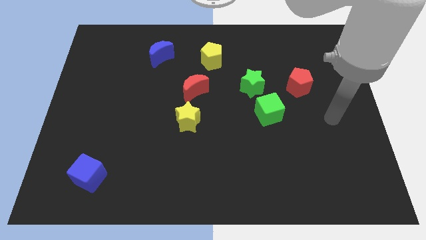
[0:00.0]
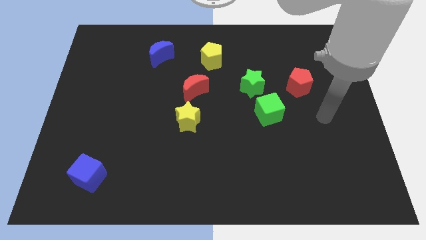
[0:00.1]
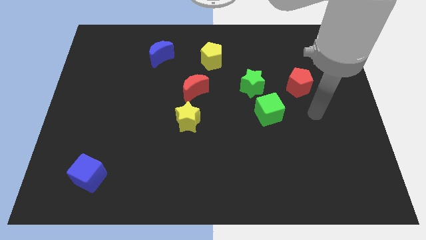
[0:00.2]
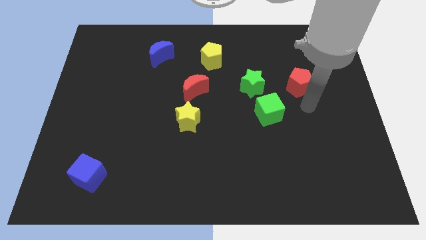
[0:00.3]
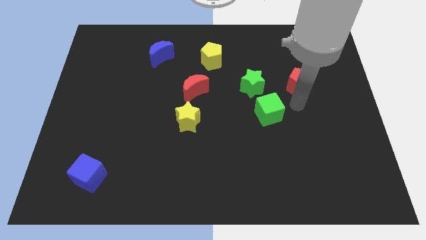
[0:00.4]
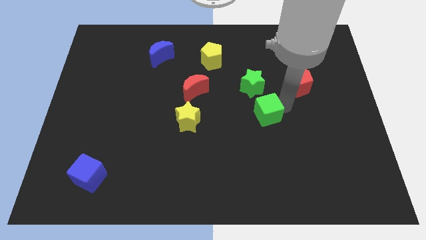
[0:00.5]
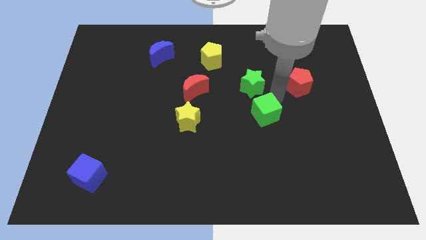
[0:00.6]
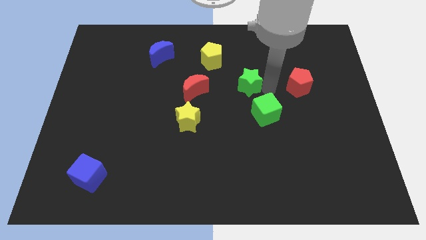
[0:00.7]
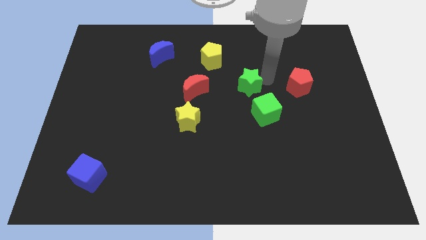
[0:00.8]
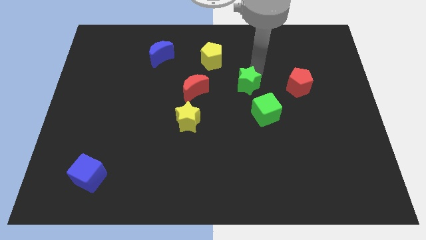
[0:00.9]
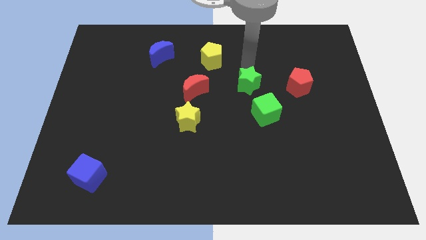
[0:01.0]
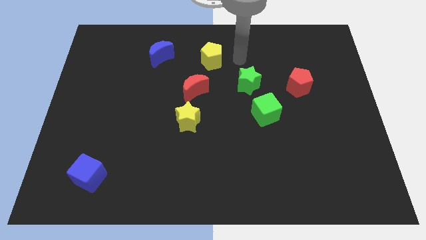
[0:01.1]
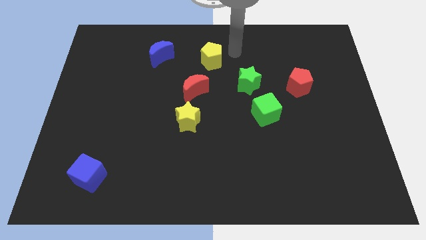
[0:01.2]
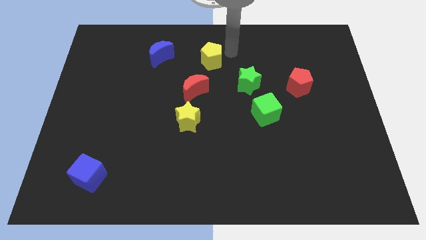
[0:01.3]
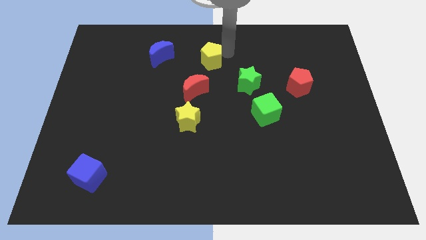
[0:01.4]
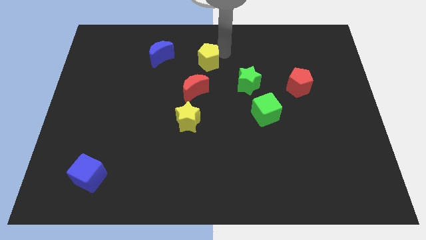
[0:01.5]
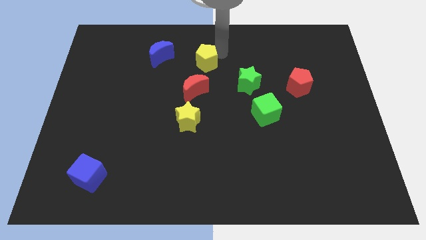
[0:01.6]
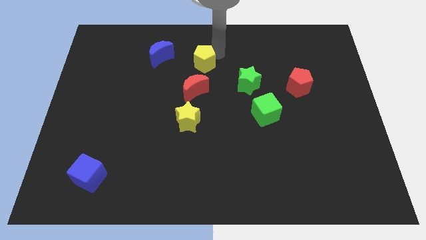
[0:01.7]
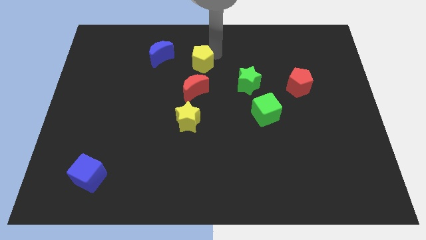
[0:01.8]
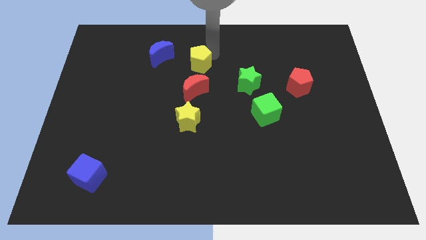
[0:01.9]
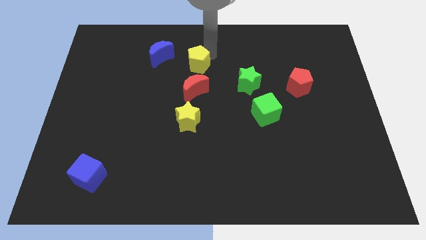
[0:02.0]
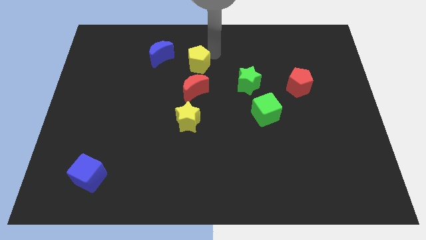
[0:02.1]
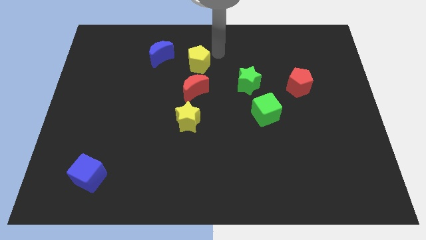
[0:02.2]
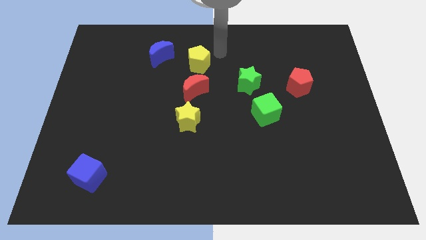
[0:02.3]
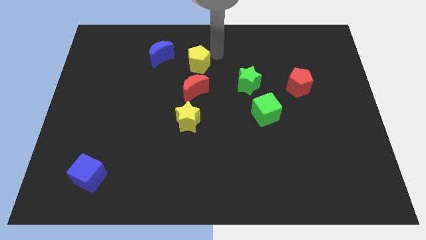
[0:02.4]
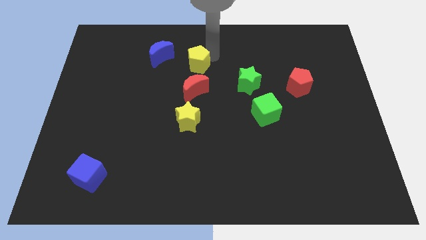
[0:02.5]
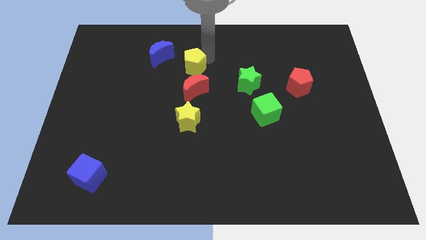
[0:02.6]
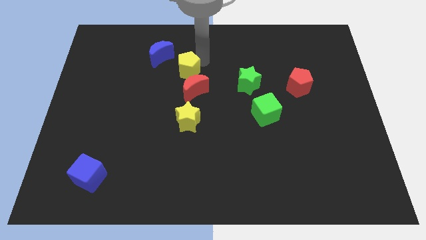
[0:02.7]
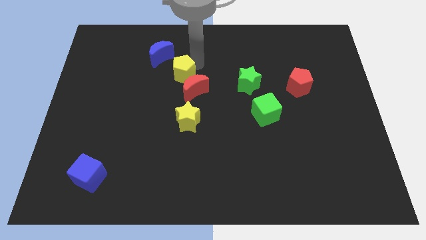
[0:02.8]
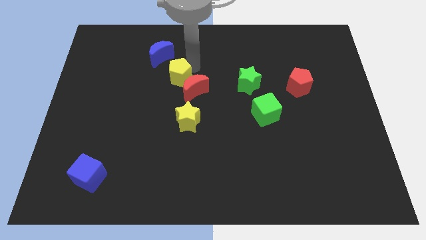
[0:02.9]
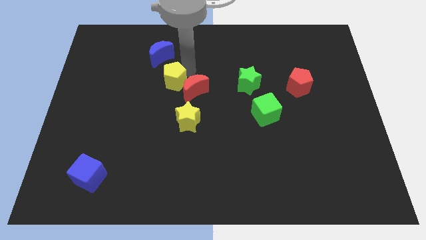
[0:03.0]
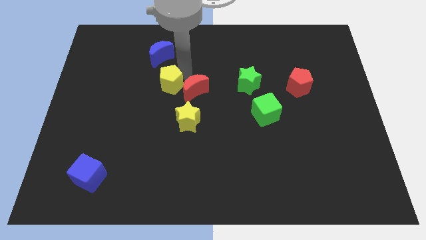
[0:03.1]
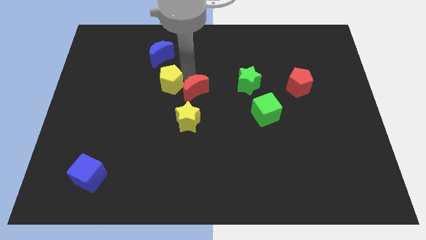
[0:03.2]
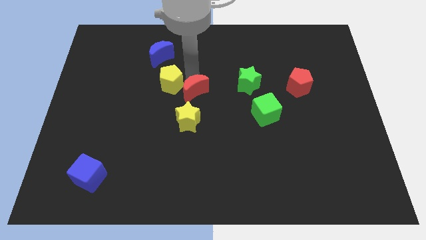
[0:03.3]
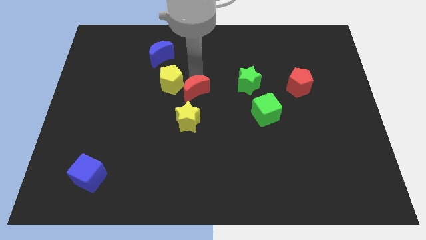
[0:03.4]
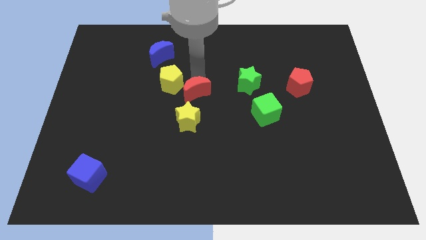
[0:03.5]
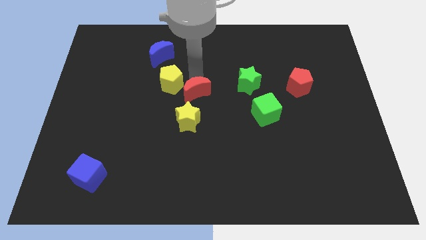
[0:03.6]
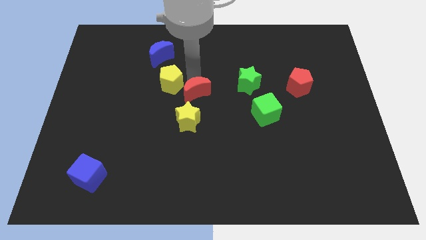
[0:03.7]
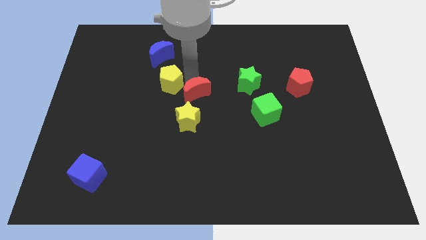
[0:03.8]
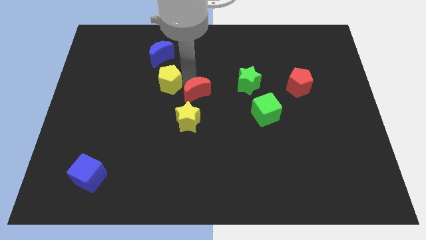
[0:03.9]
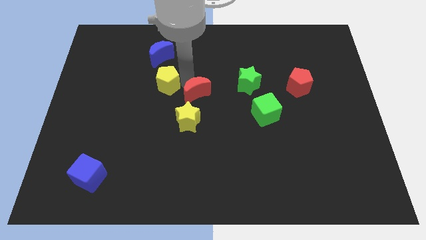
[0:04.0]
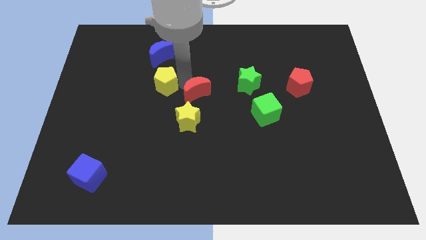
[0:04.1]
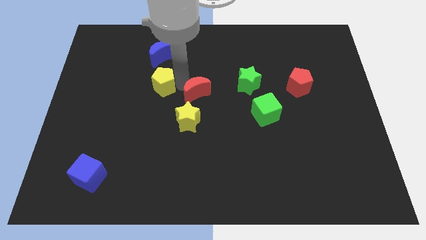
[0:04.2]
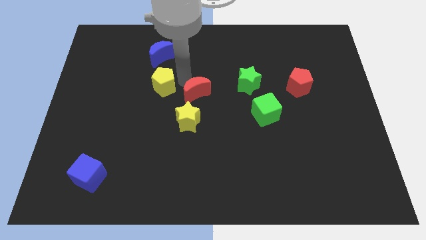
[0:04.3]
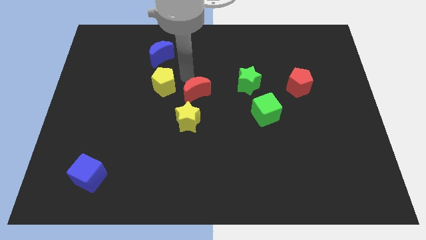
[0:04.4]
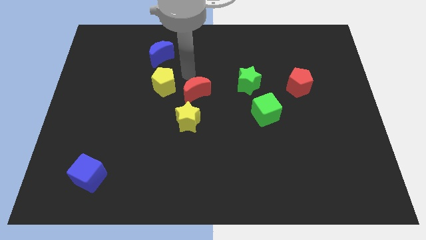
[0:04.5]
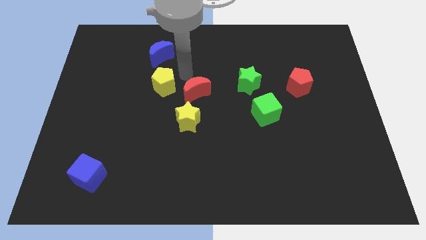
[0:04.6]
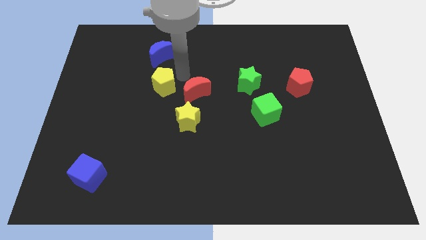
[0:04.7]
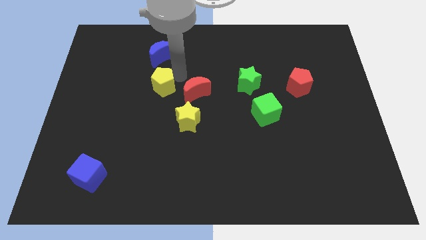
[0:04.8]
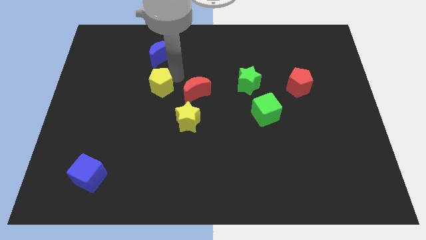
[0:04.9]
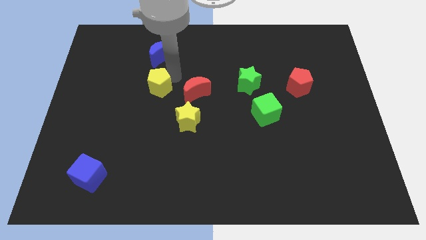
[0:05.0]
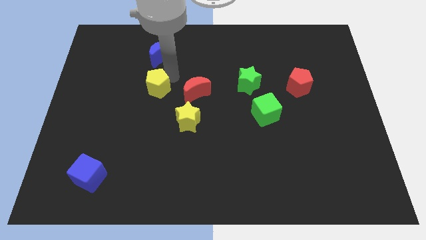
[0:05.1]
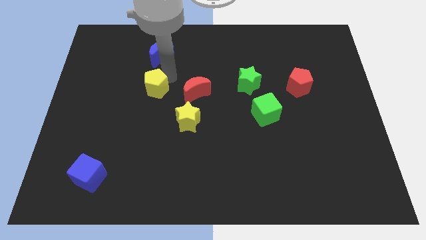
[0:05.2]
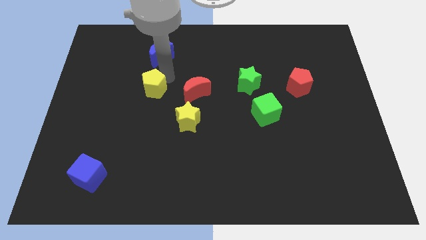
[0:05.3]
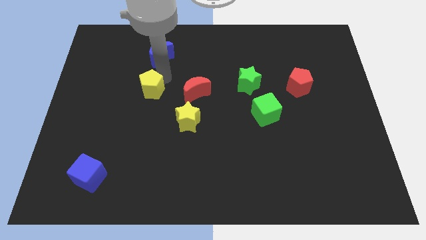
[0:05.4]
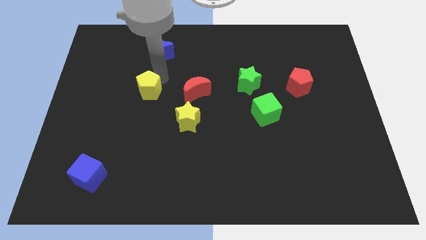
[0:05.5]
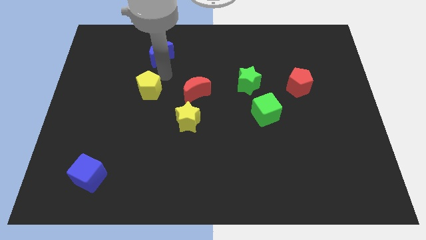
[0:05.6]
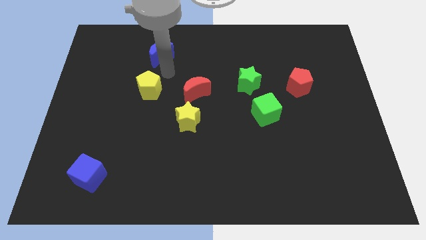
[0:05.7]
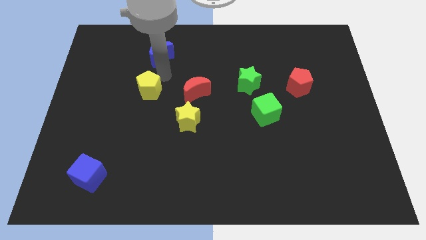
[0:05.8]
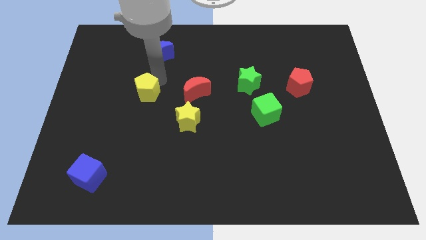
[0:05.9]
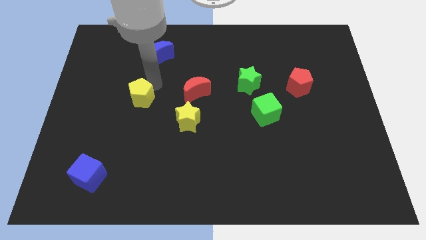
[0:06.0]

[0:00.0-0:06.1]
move the yellow pentagon diagonally downwards and left

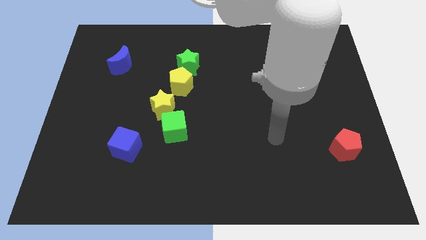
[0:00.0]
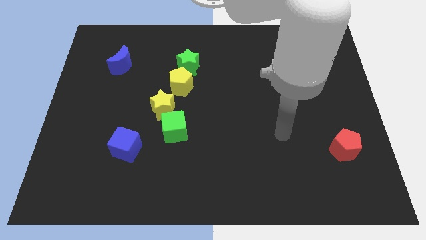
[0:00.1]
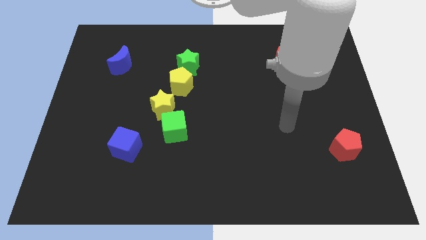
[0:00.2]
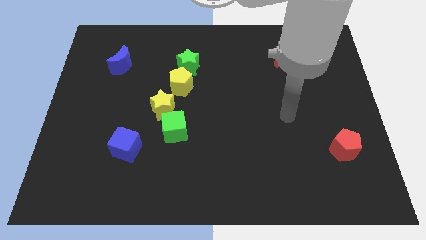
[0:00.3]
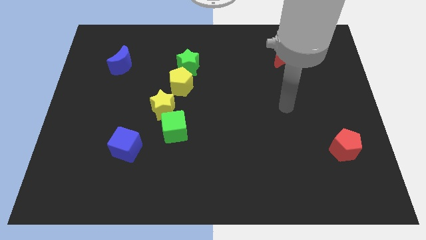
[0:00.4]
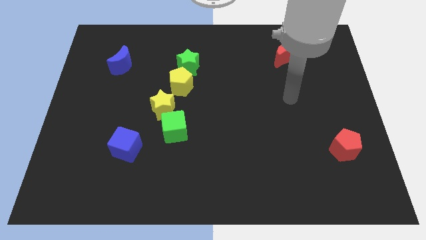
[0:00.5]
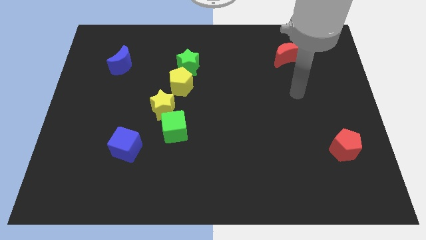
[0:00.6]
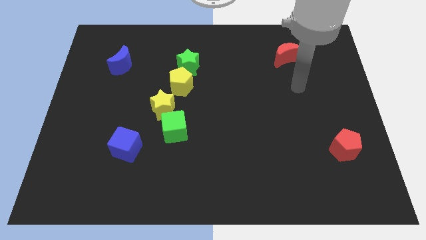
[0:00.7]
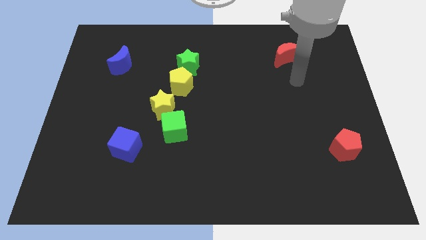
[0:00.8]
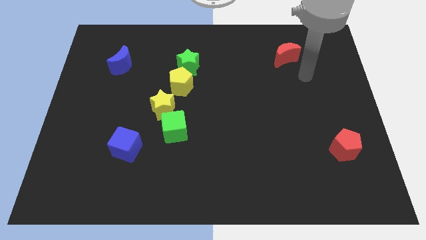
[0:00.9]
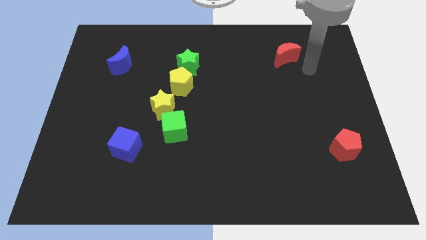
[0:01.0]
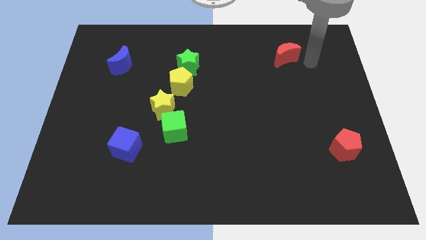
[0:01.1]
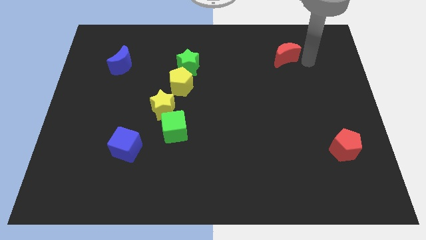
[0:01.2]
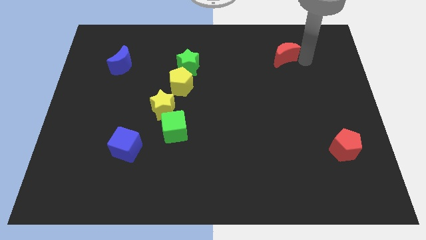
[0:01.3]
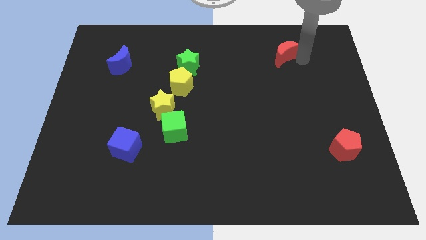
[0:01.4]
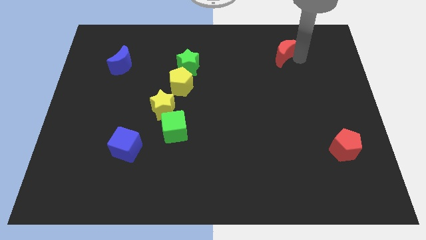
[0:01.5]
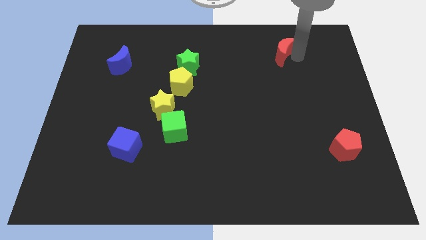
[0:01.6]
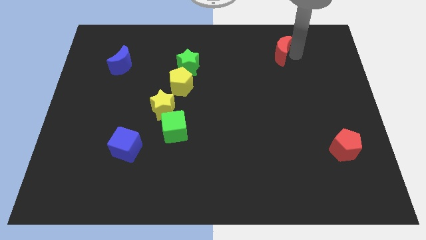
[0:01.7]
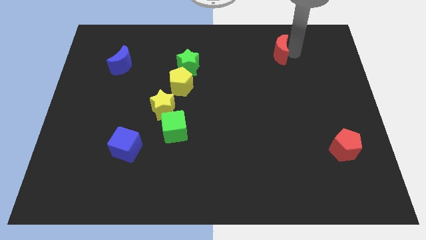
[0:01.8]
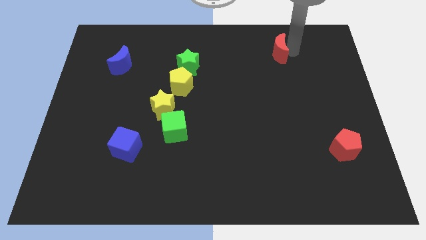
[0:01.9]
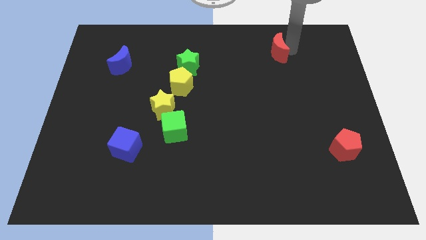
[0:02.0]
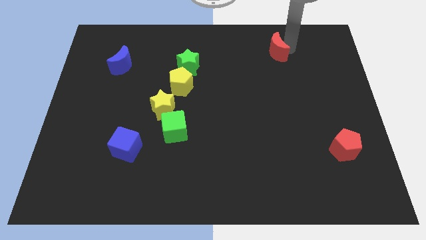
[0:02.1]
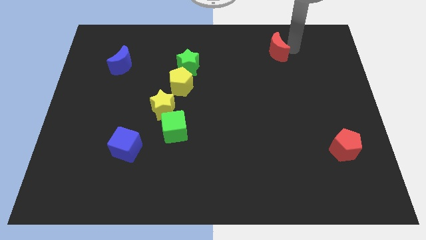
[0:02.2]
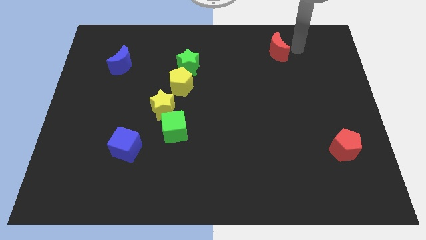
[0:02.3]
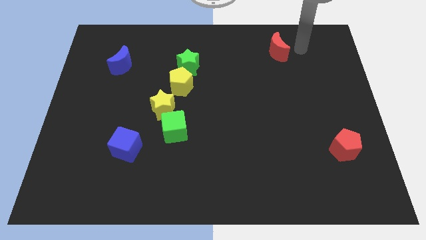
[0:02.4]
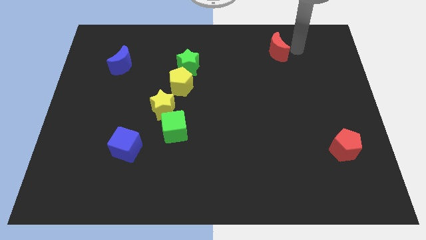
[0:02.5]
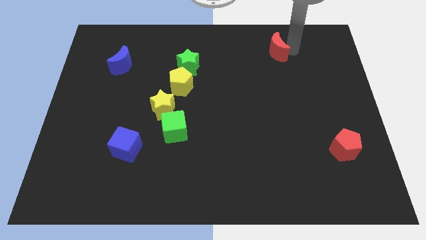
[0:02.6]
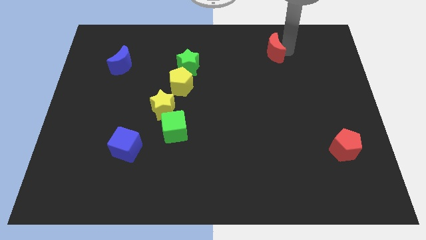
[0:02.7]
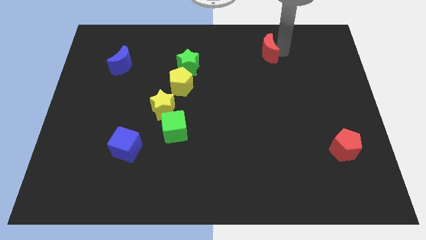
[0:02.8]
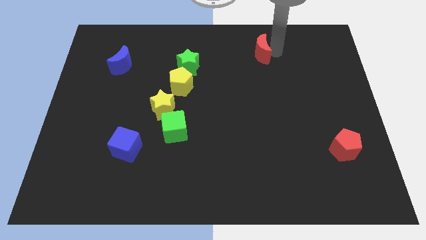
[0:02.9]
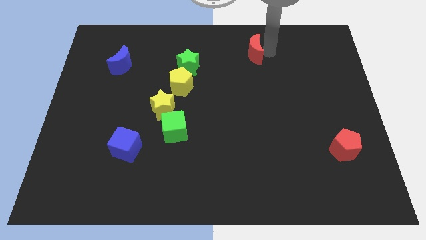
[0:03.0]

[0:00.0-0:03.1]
slightly move the red moon to the left
